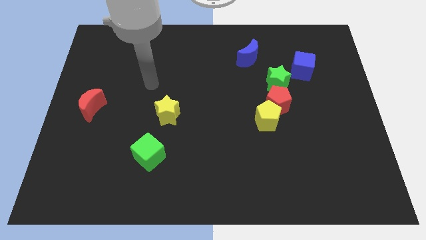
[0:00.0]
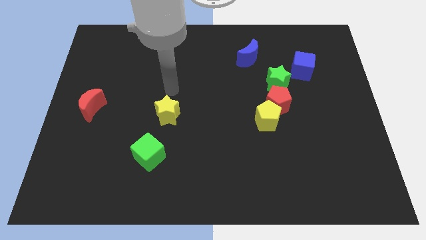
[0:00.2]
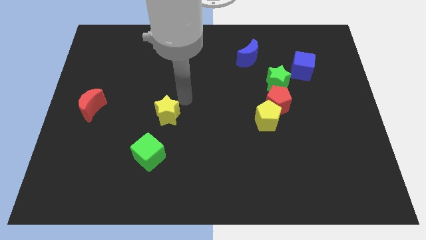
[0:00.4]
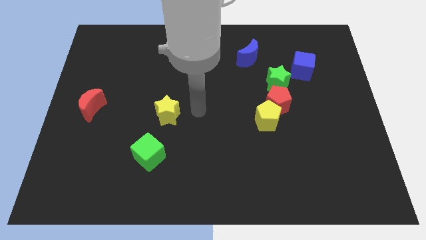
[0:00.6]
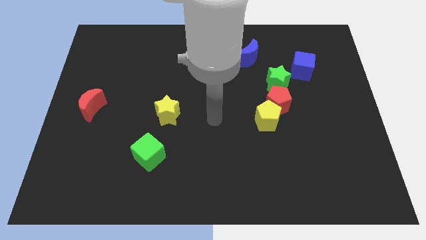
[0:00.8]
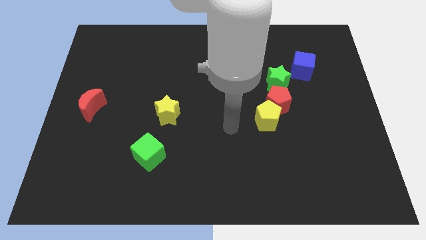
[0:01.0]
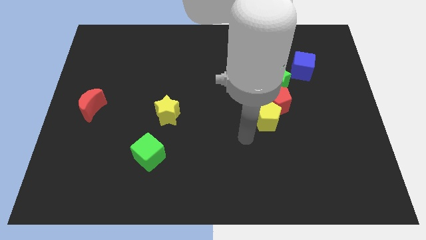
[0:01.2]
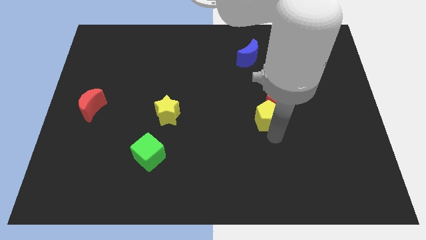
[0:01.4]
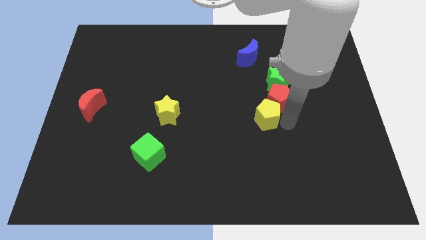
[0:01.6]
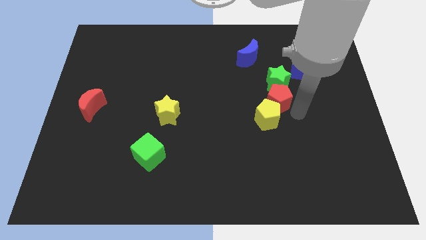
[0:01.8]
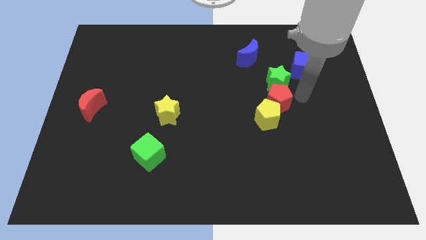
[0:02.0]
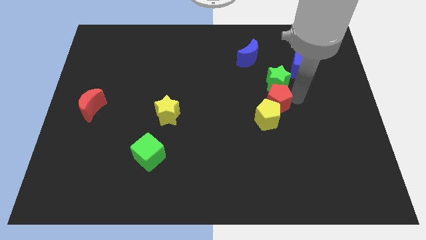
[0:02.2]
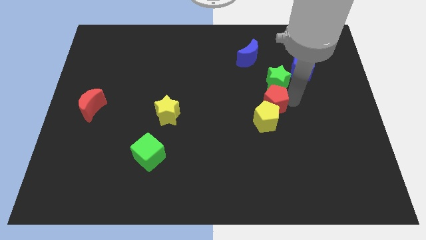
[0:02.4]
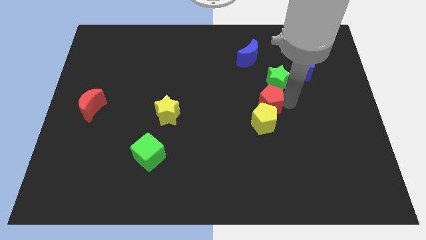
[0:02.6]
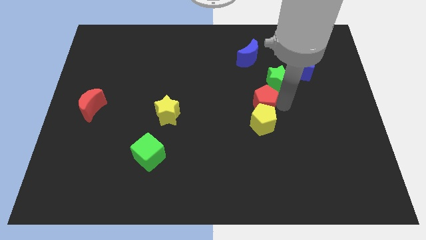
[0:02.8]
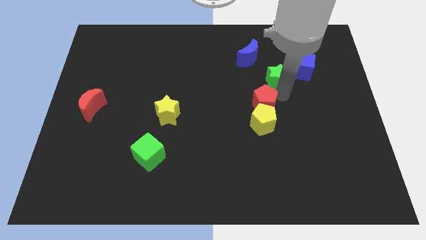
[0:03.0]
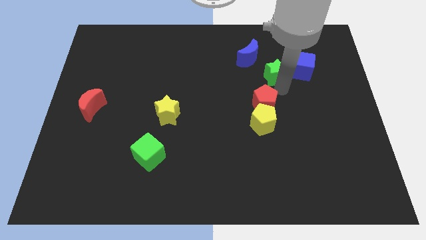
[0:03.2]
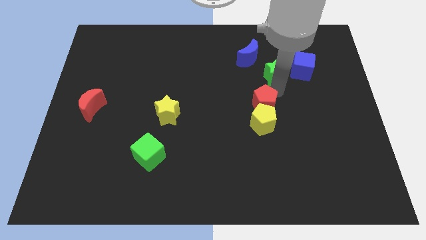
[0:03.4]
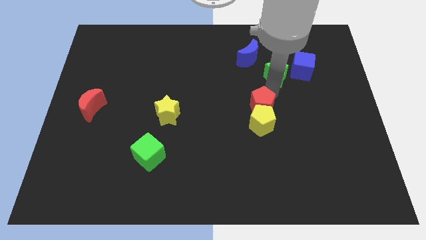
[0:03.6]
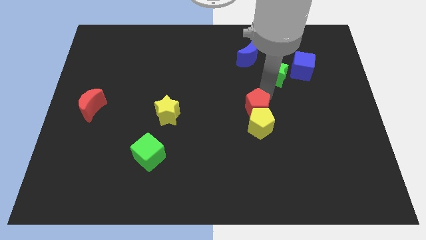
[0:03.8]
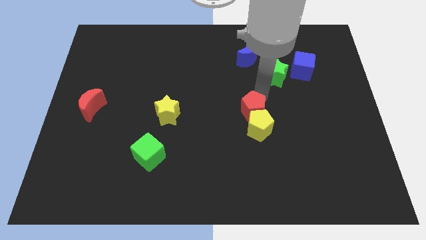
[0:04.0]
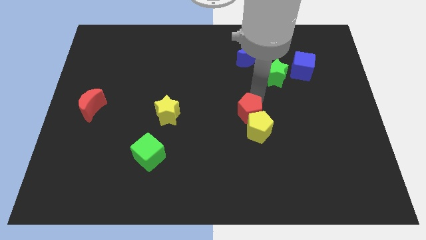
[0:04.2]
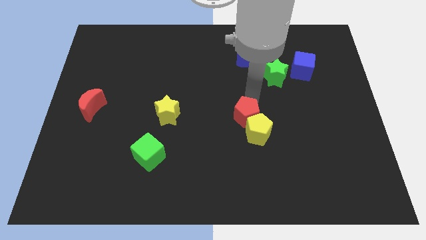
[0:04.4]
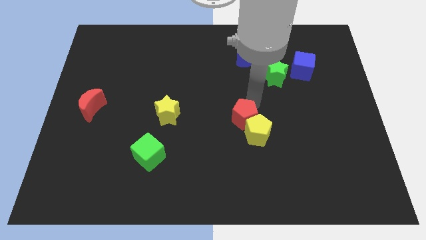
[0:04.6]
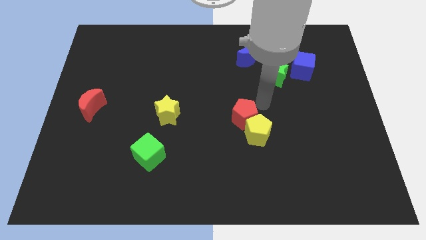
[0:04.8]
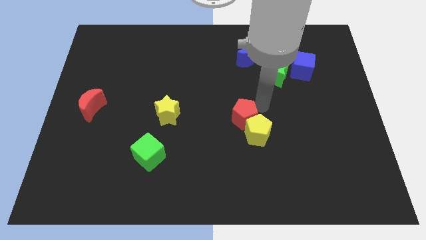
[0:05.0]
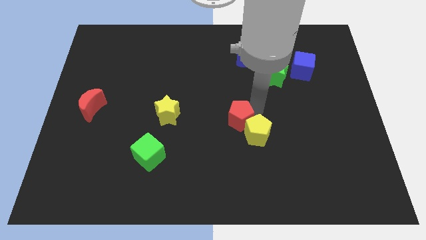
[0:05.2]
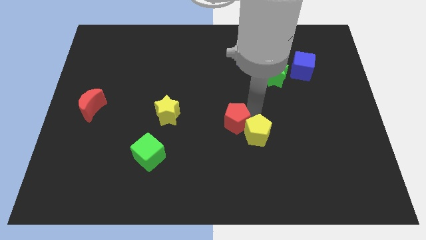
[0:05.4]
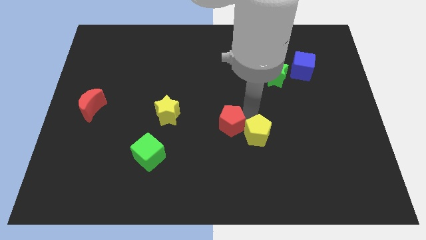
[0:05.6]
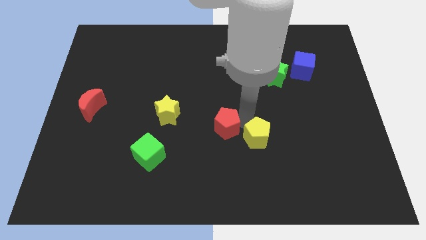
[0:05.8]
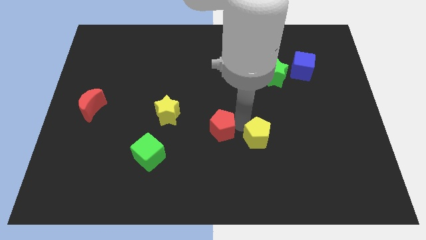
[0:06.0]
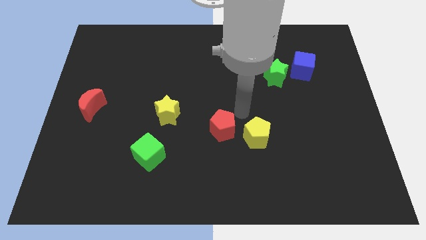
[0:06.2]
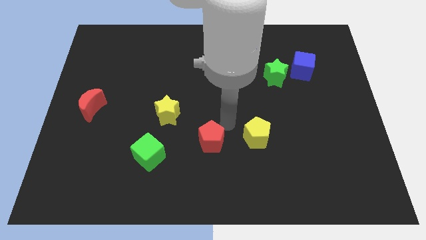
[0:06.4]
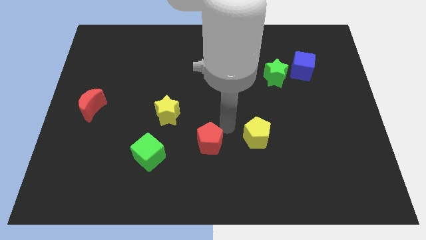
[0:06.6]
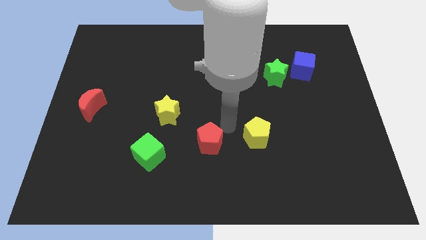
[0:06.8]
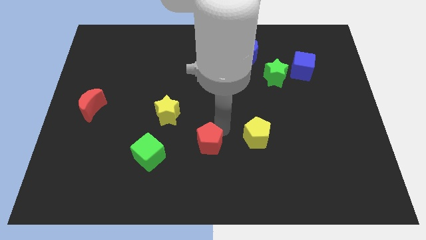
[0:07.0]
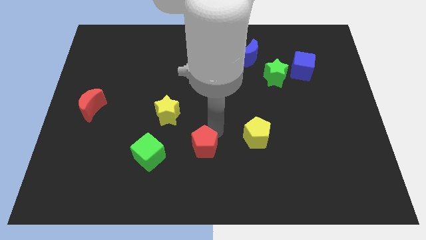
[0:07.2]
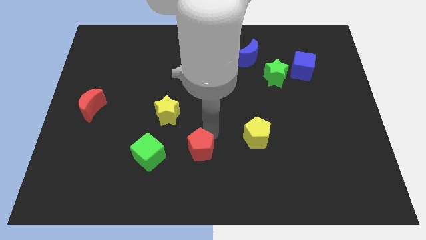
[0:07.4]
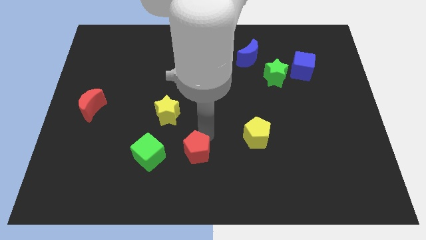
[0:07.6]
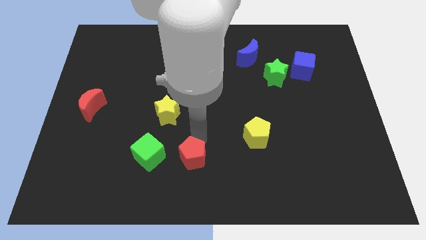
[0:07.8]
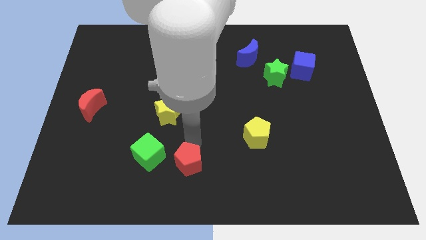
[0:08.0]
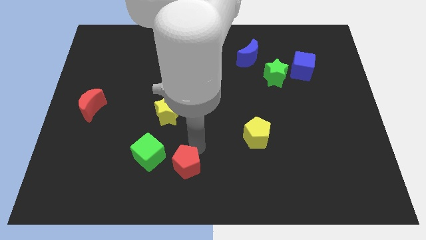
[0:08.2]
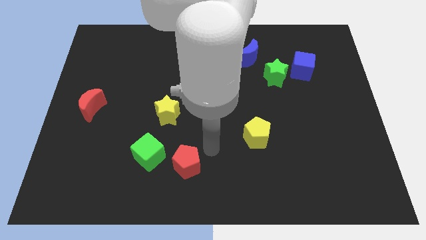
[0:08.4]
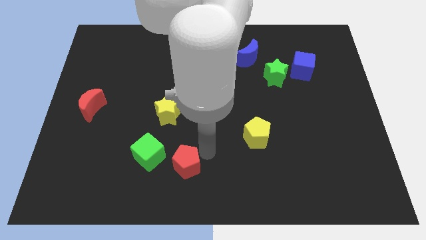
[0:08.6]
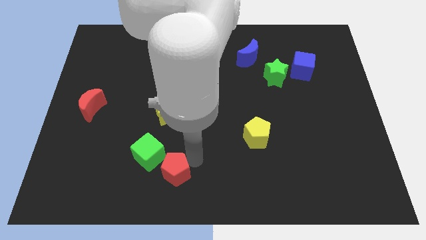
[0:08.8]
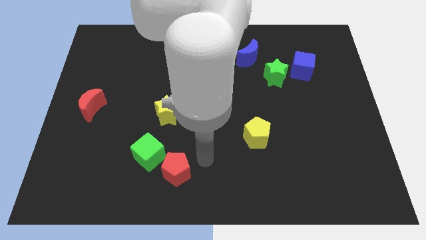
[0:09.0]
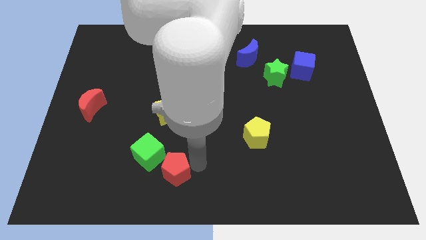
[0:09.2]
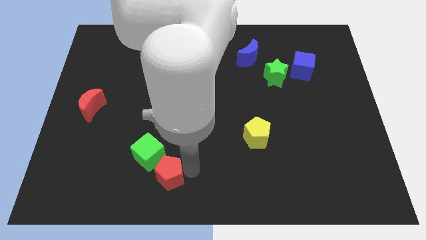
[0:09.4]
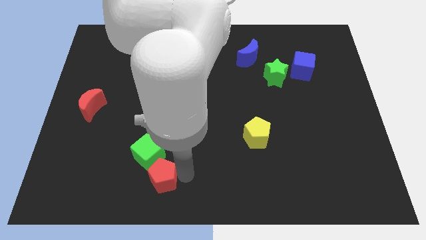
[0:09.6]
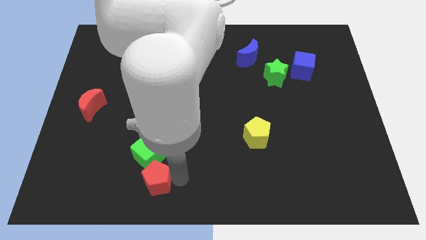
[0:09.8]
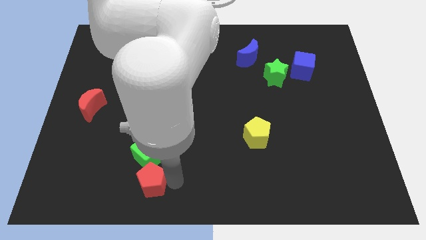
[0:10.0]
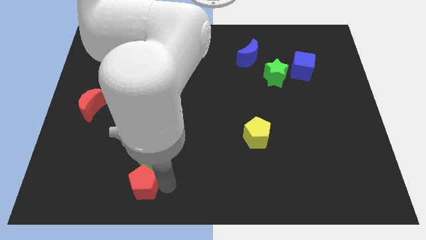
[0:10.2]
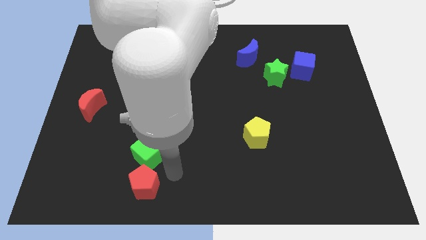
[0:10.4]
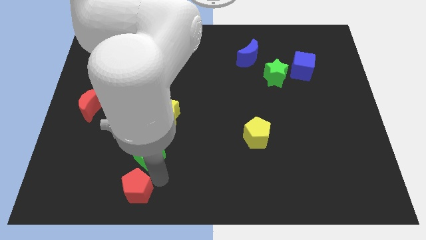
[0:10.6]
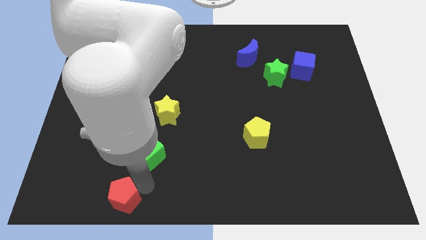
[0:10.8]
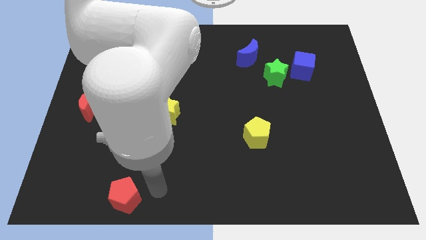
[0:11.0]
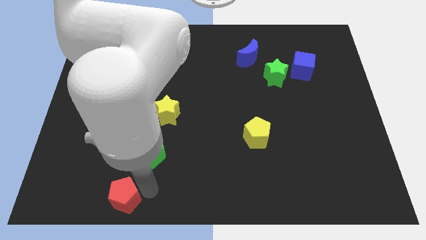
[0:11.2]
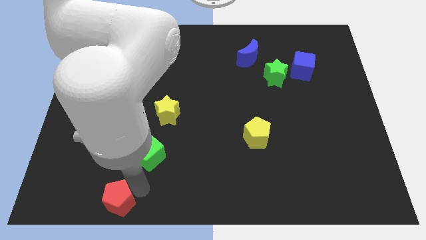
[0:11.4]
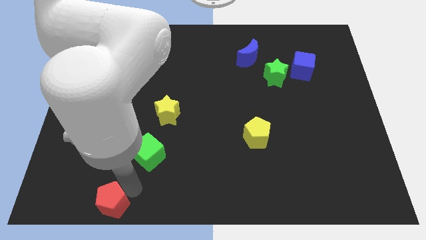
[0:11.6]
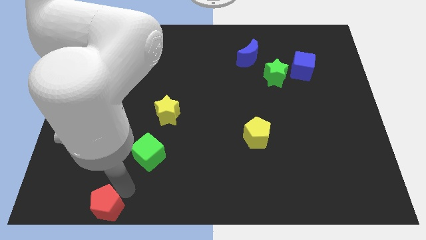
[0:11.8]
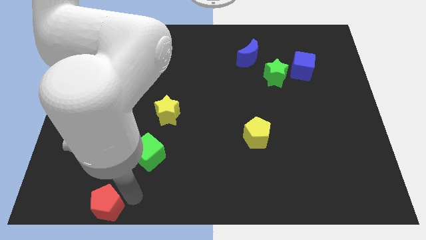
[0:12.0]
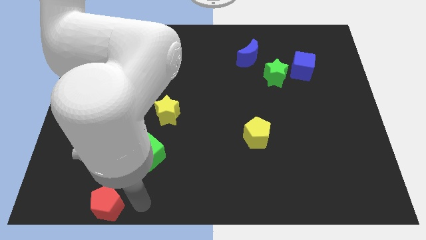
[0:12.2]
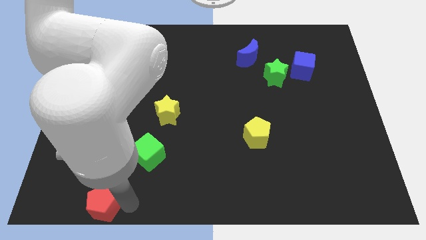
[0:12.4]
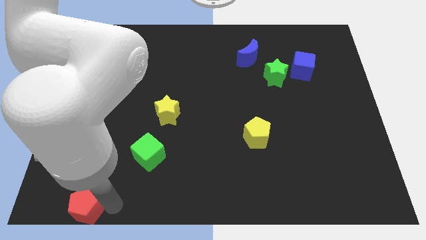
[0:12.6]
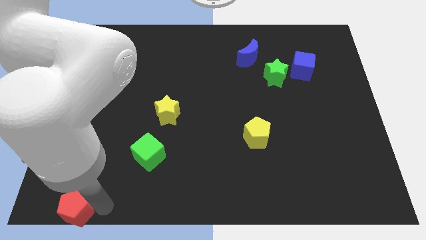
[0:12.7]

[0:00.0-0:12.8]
put the red pentagon to the bottom left of the board
